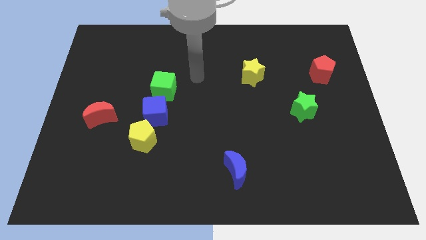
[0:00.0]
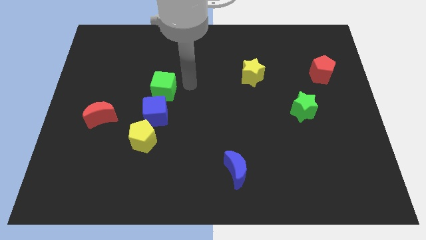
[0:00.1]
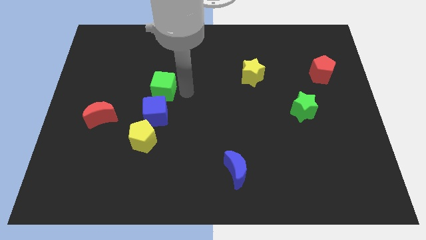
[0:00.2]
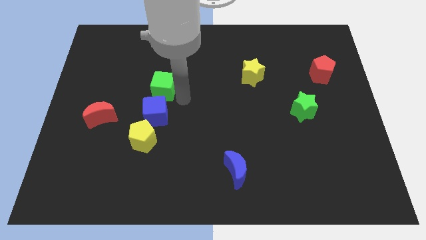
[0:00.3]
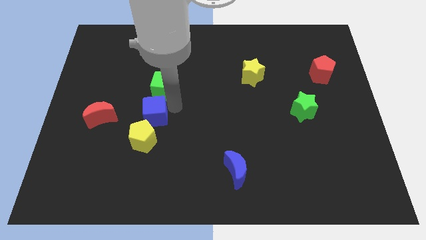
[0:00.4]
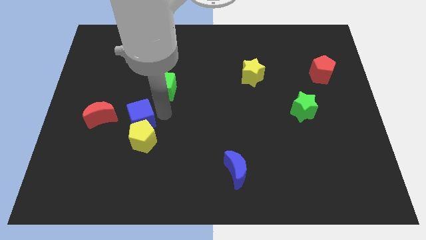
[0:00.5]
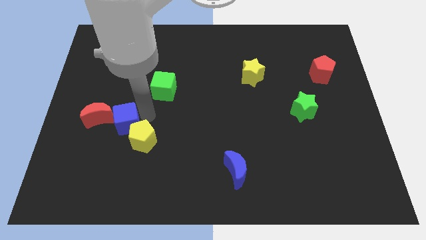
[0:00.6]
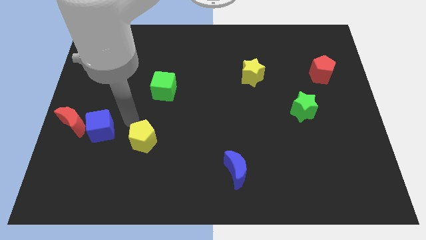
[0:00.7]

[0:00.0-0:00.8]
move the yellow pentagon away from the blue cube

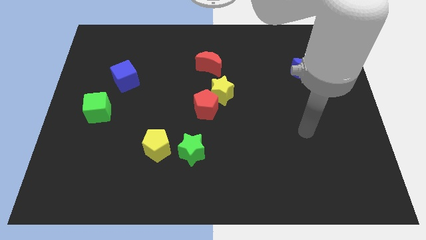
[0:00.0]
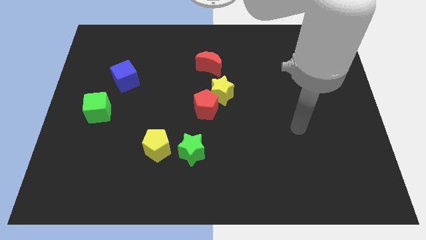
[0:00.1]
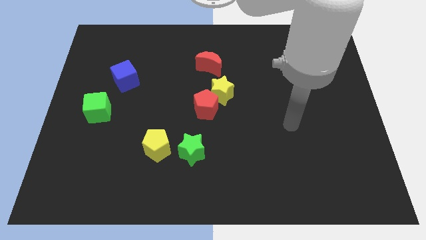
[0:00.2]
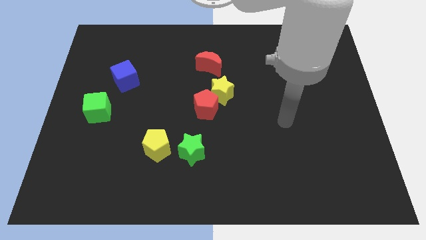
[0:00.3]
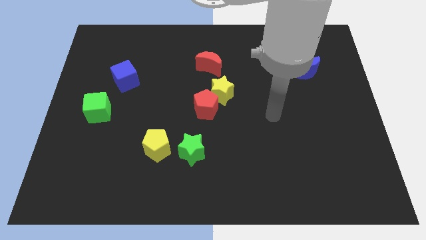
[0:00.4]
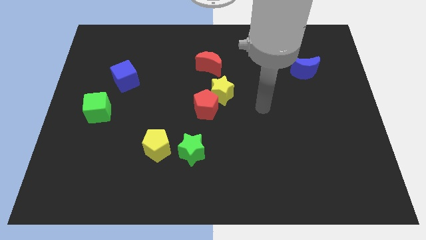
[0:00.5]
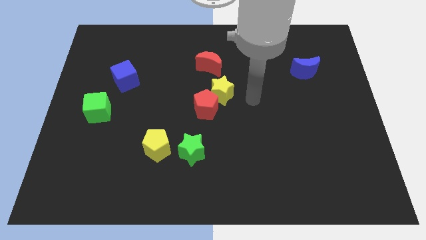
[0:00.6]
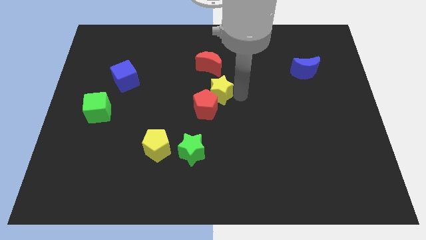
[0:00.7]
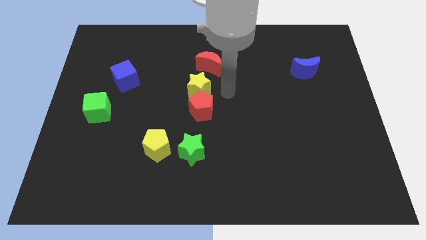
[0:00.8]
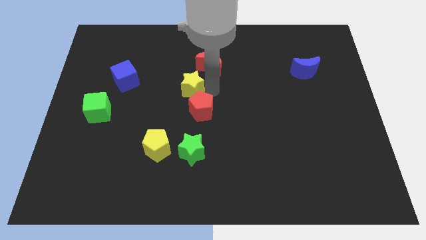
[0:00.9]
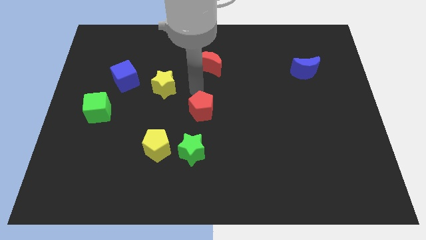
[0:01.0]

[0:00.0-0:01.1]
separate the red pentagon from the yellow star

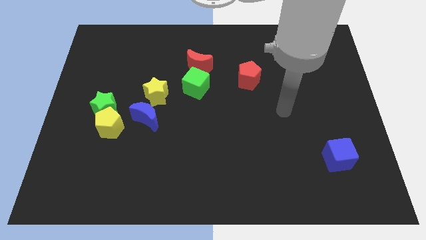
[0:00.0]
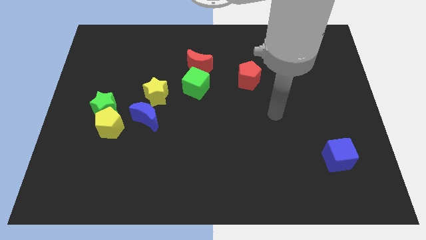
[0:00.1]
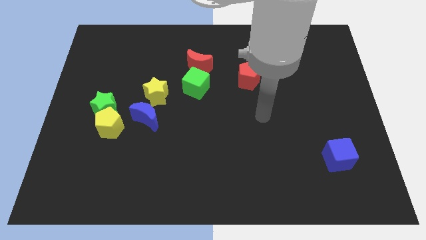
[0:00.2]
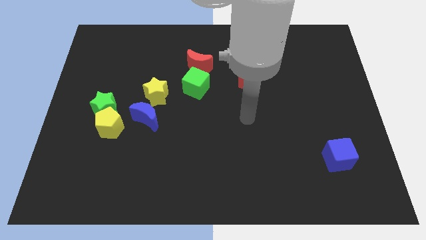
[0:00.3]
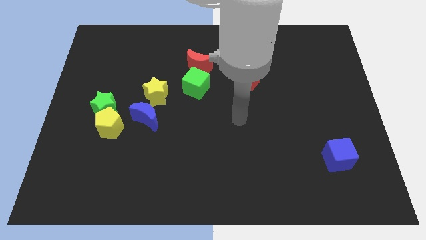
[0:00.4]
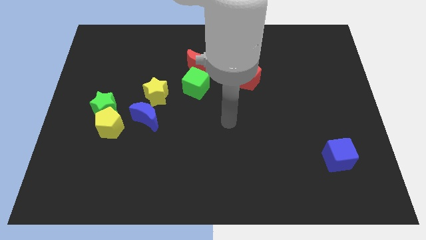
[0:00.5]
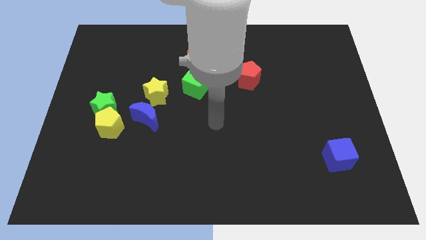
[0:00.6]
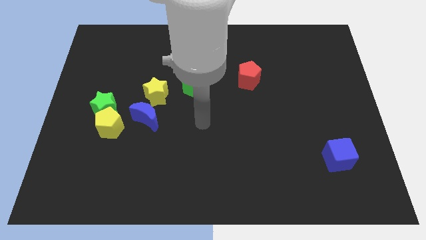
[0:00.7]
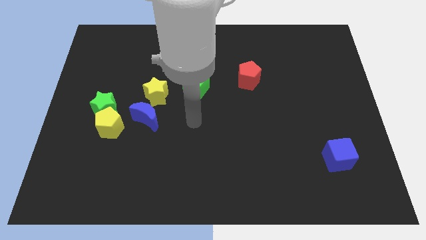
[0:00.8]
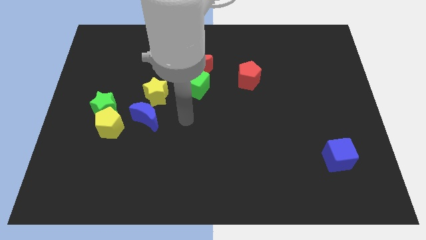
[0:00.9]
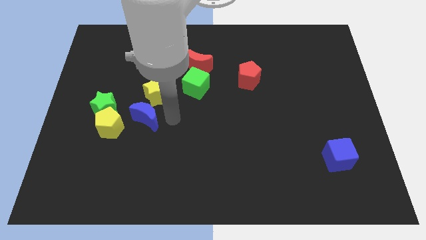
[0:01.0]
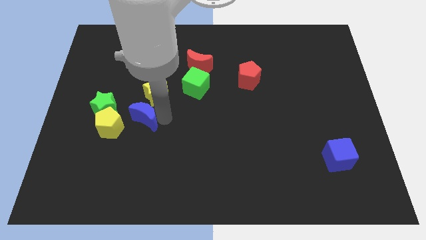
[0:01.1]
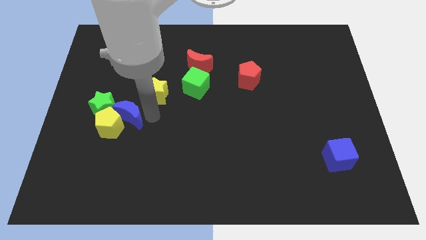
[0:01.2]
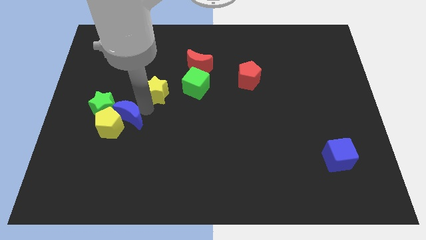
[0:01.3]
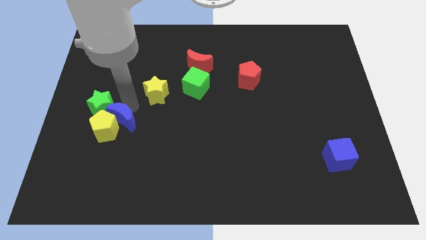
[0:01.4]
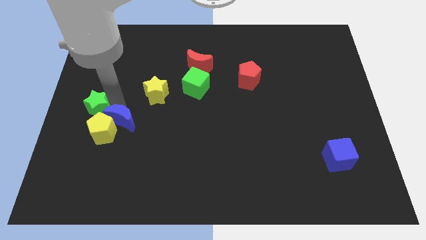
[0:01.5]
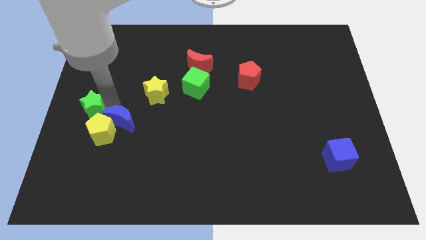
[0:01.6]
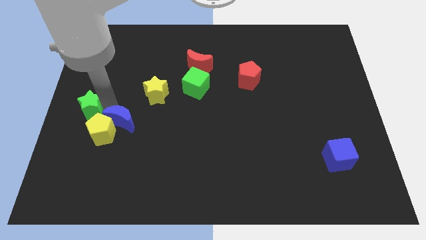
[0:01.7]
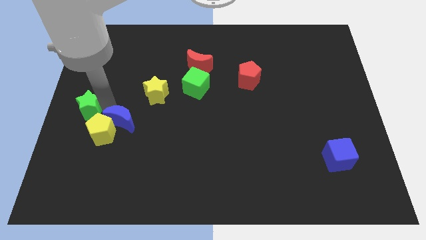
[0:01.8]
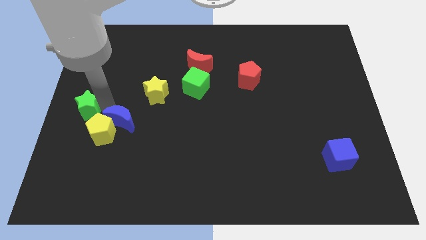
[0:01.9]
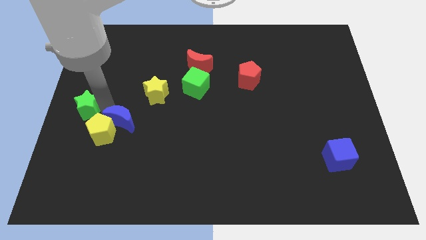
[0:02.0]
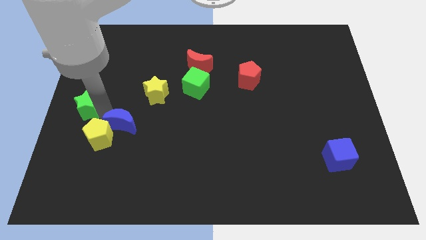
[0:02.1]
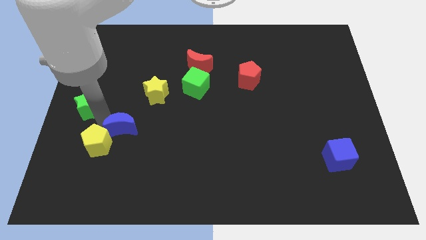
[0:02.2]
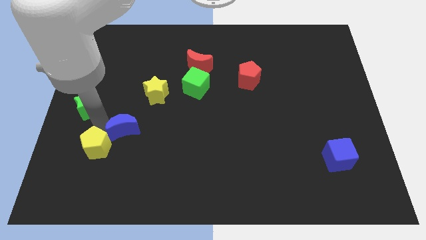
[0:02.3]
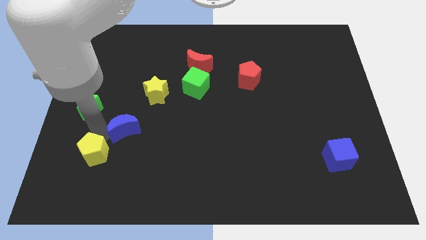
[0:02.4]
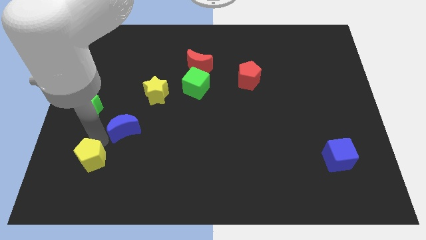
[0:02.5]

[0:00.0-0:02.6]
pull the yellow pentagon apart from the green star and blue moon

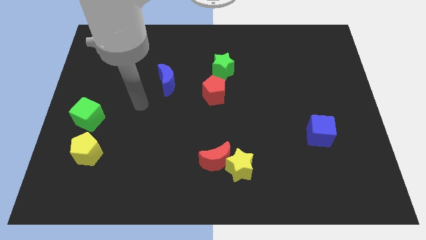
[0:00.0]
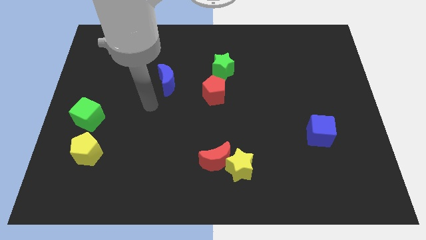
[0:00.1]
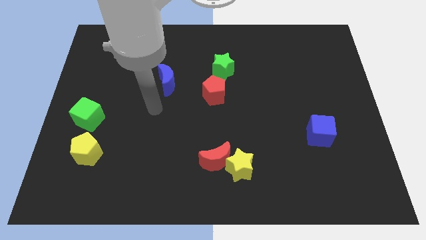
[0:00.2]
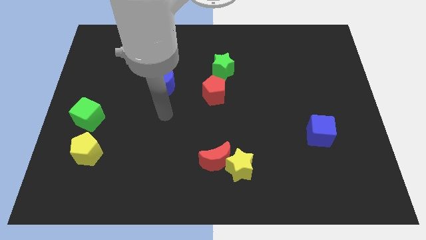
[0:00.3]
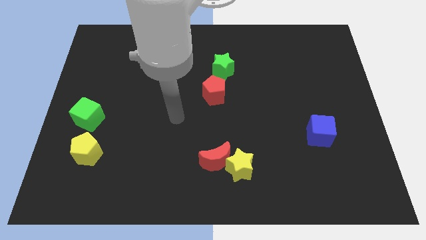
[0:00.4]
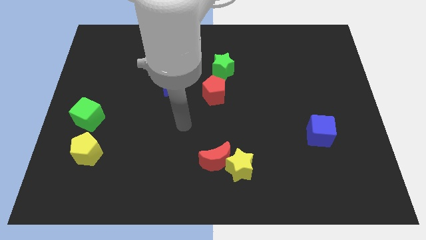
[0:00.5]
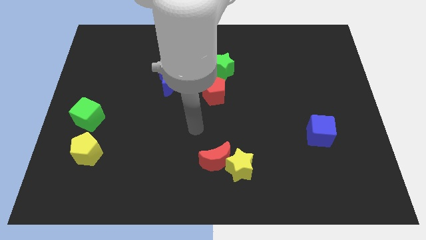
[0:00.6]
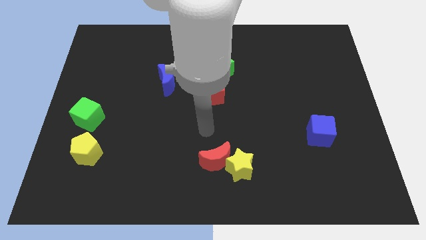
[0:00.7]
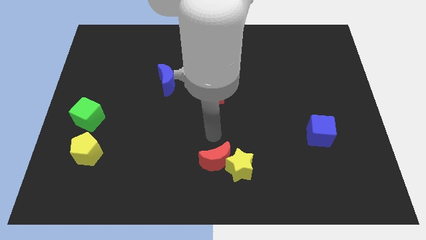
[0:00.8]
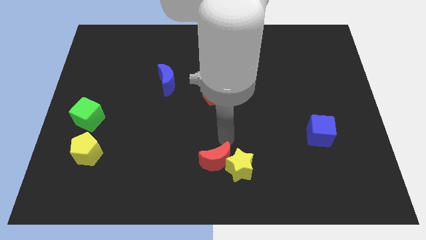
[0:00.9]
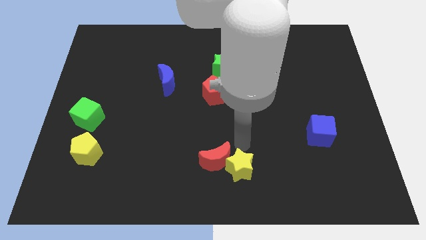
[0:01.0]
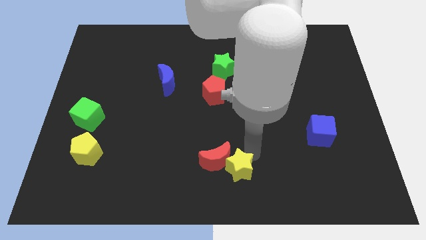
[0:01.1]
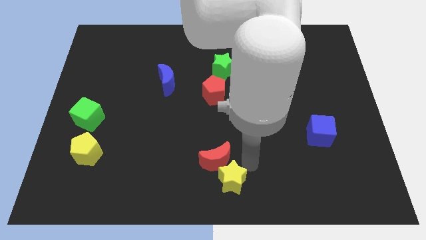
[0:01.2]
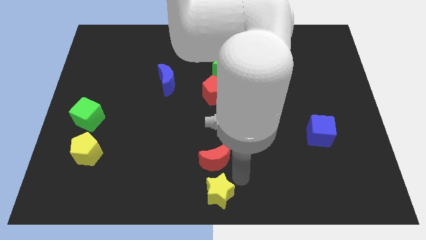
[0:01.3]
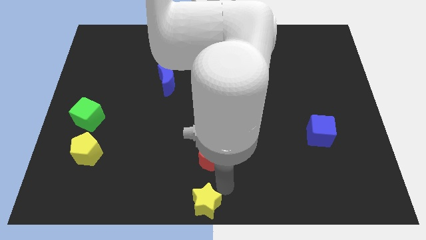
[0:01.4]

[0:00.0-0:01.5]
separate the red moon from the yellow star

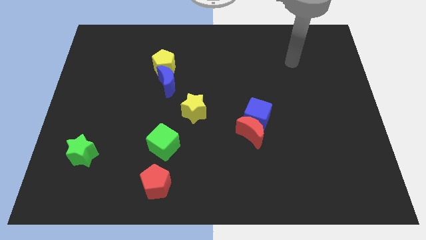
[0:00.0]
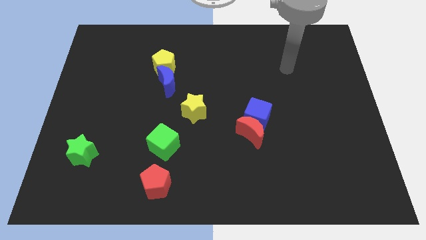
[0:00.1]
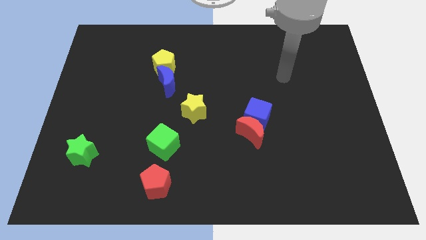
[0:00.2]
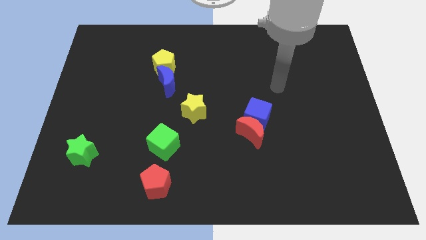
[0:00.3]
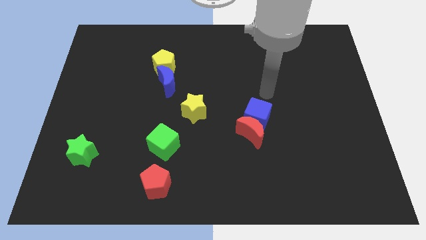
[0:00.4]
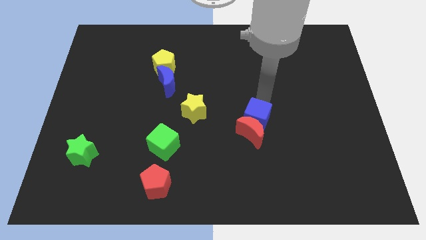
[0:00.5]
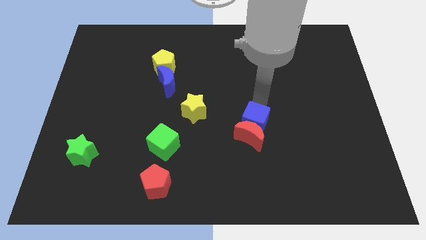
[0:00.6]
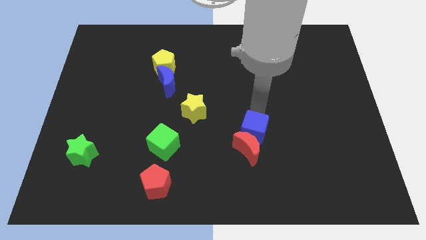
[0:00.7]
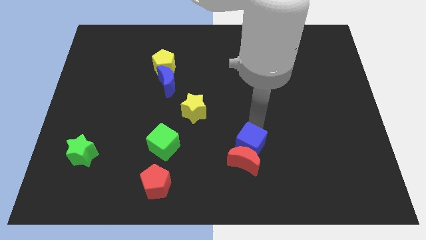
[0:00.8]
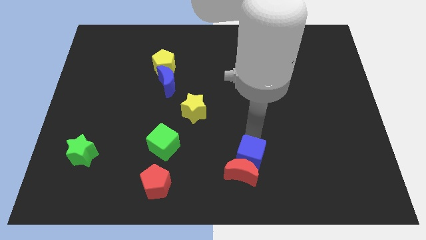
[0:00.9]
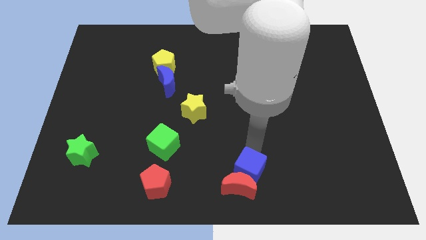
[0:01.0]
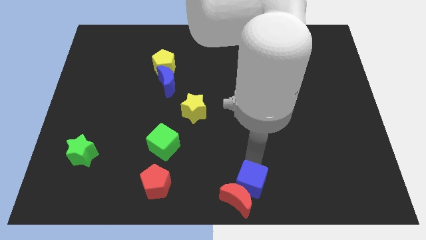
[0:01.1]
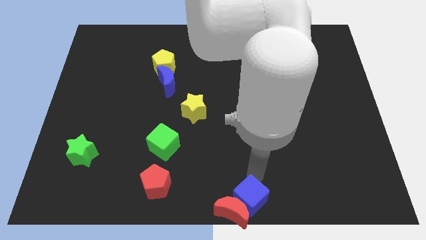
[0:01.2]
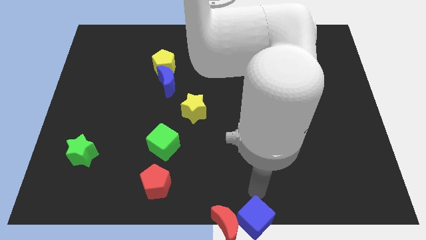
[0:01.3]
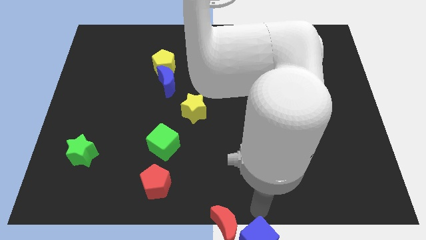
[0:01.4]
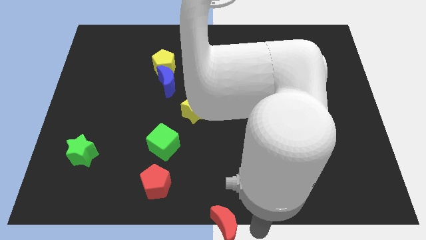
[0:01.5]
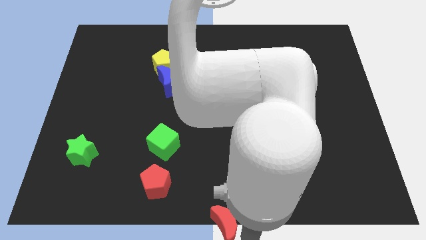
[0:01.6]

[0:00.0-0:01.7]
pull the red moon apart from the blue cube

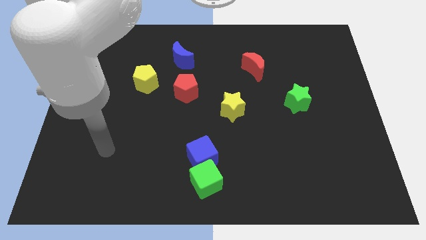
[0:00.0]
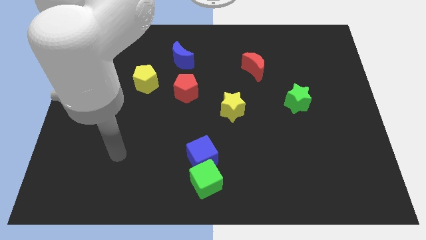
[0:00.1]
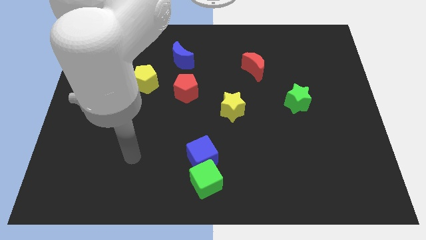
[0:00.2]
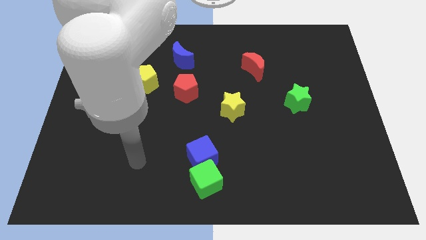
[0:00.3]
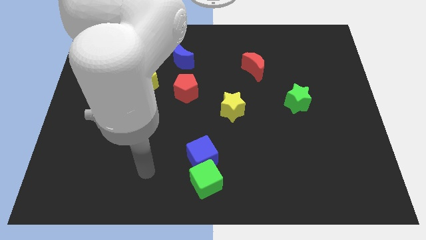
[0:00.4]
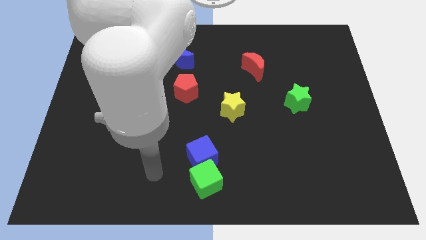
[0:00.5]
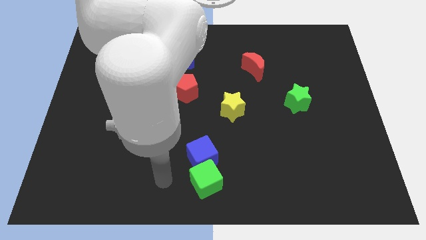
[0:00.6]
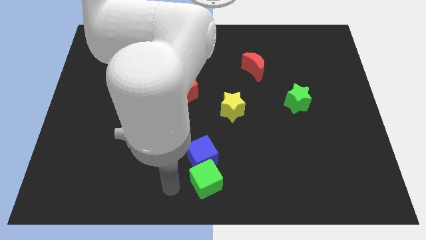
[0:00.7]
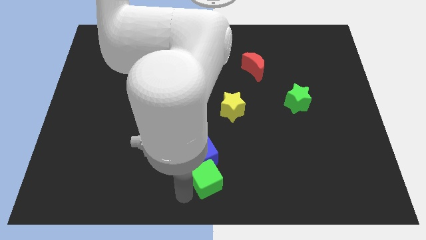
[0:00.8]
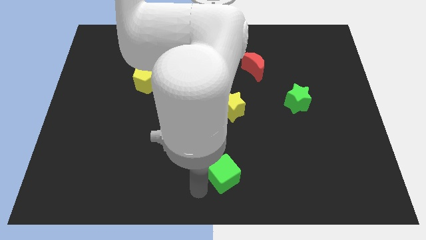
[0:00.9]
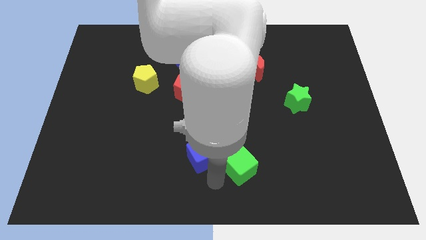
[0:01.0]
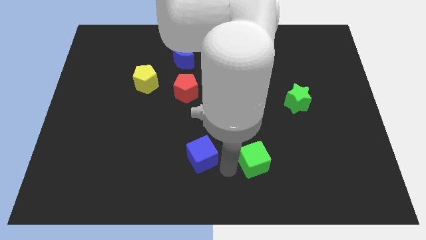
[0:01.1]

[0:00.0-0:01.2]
pull the blue cube apart from the green cube

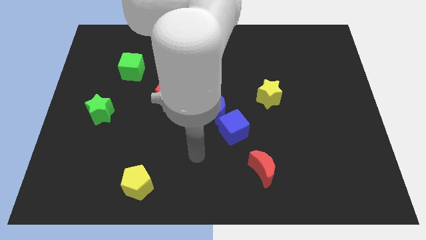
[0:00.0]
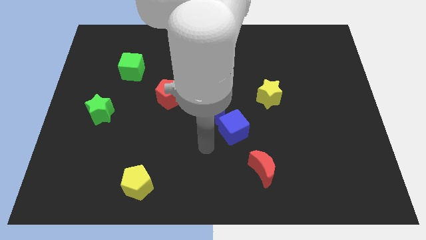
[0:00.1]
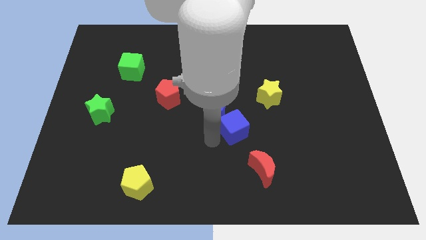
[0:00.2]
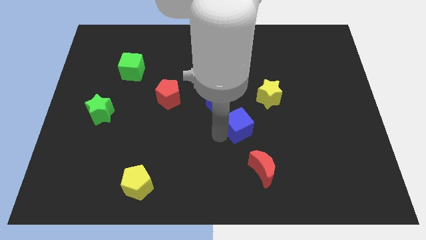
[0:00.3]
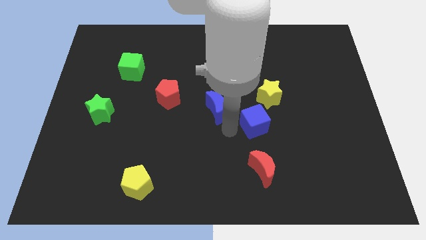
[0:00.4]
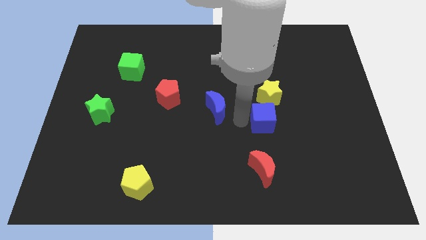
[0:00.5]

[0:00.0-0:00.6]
pull the blue moon apart from the blue cube
